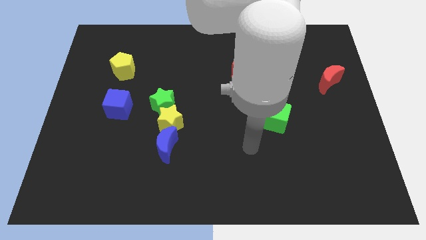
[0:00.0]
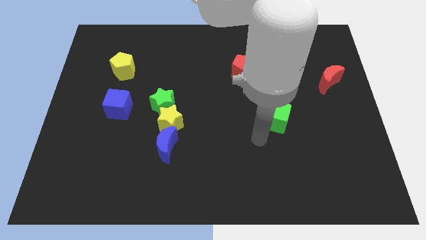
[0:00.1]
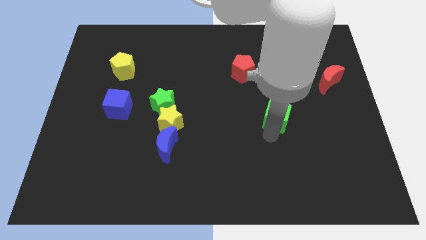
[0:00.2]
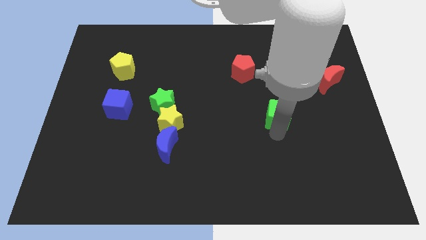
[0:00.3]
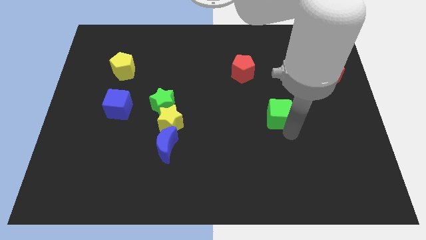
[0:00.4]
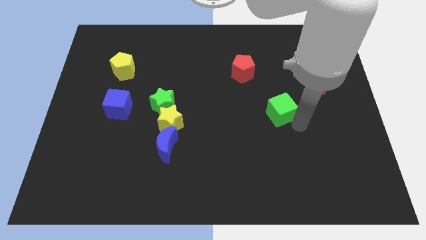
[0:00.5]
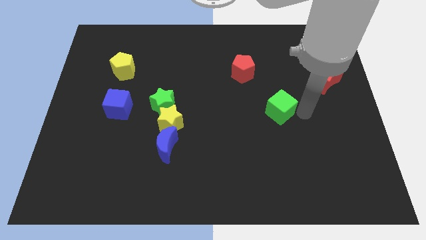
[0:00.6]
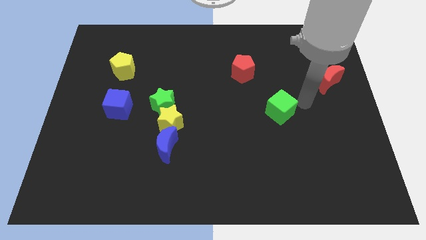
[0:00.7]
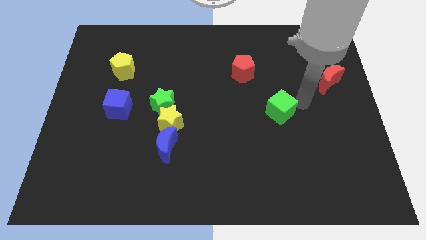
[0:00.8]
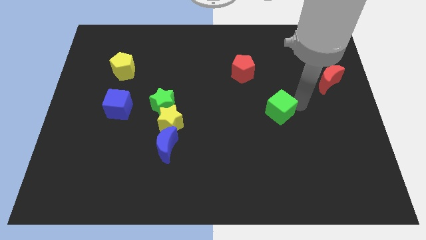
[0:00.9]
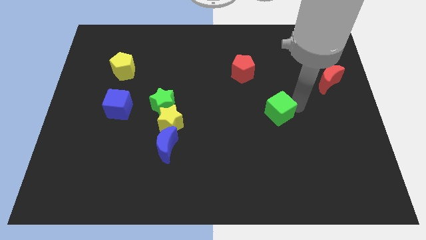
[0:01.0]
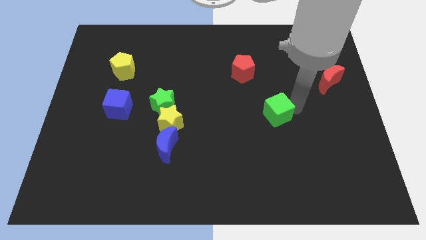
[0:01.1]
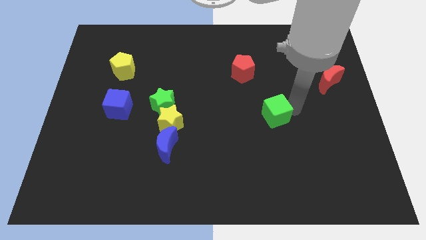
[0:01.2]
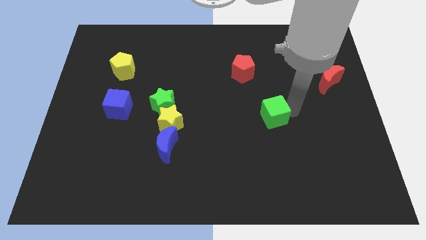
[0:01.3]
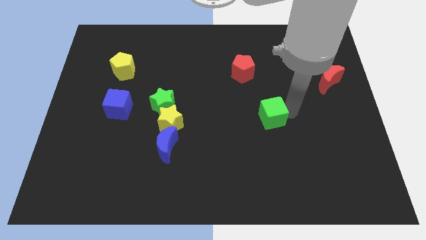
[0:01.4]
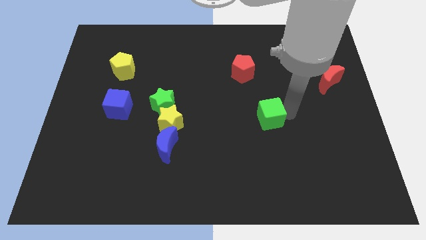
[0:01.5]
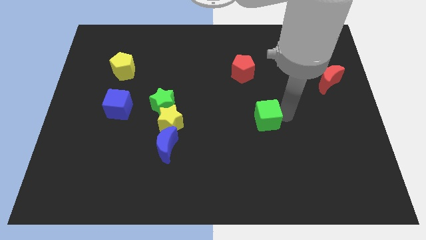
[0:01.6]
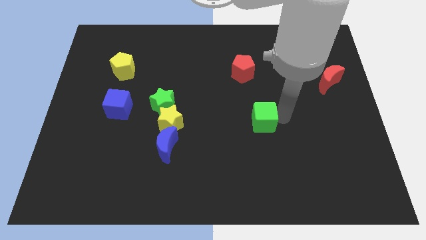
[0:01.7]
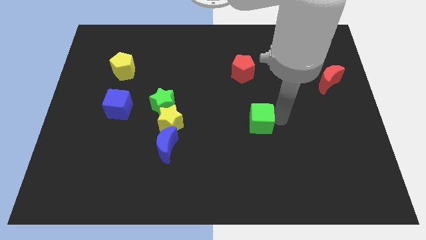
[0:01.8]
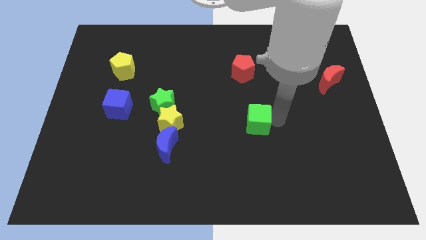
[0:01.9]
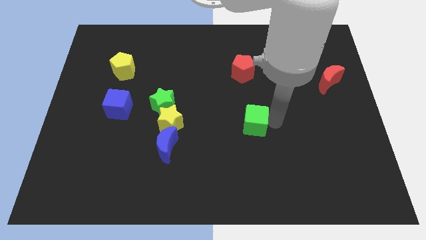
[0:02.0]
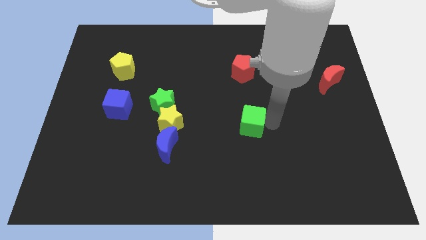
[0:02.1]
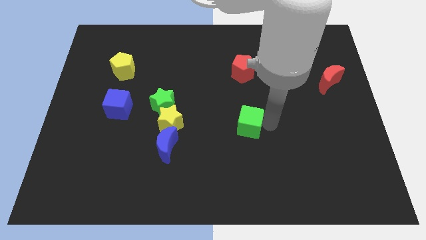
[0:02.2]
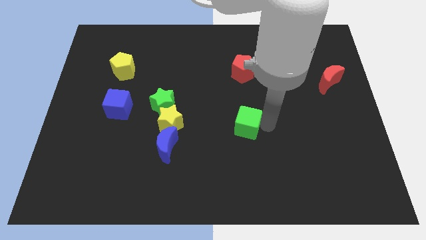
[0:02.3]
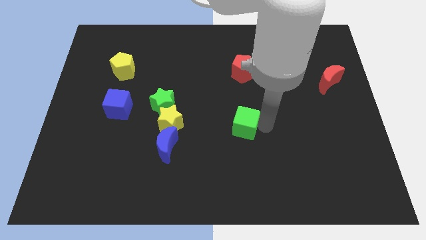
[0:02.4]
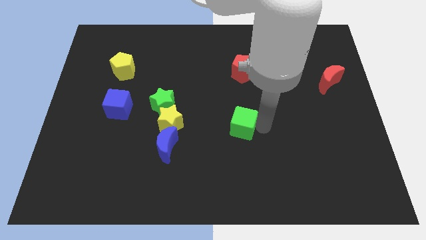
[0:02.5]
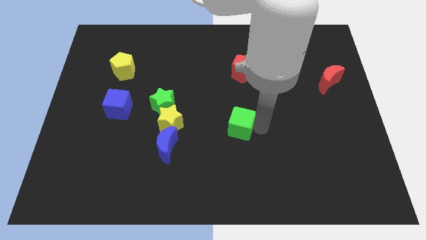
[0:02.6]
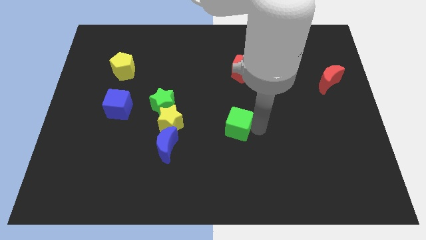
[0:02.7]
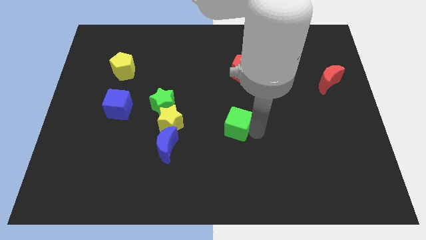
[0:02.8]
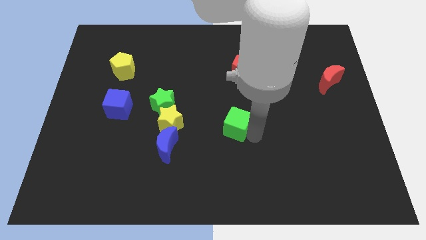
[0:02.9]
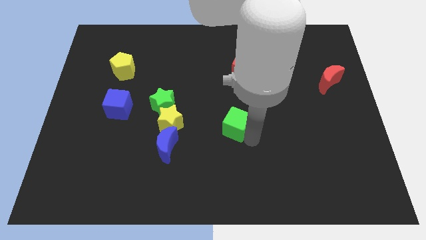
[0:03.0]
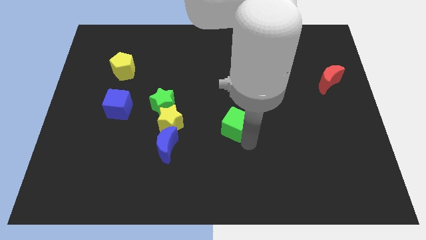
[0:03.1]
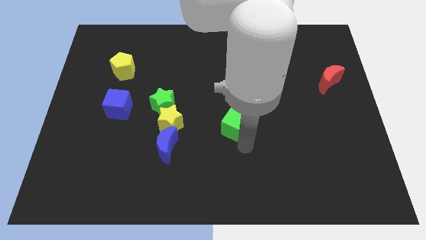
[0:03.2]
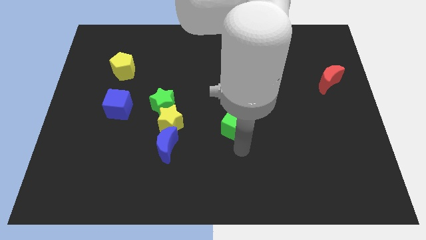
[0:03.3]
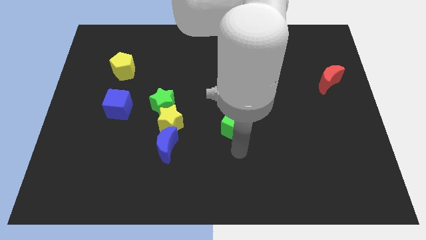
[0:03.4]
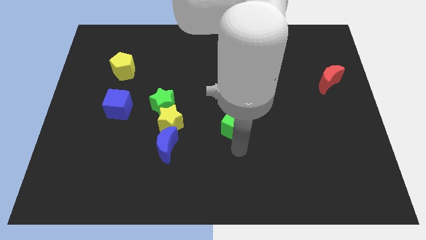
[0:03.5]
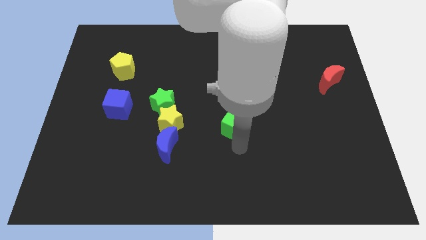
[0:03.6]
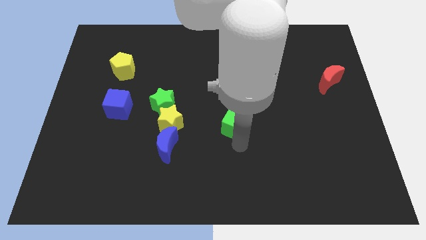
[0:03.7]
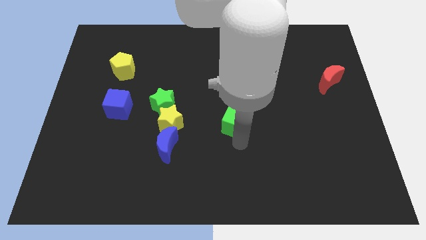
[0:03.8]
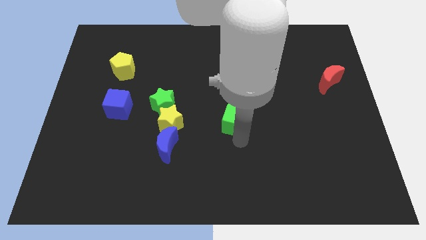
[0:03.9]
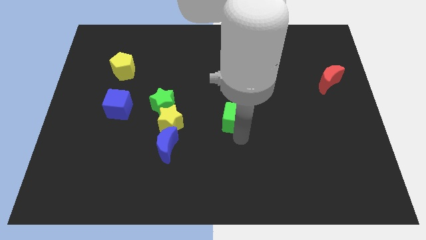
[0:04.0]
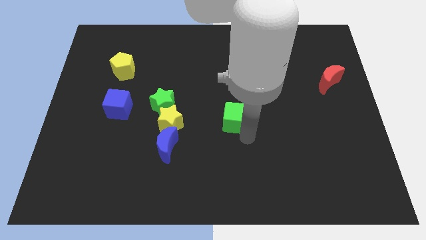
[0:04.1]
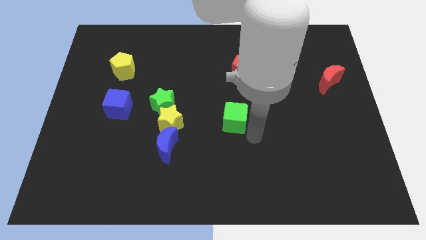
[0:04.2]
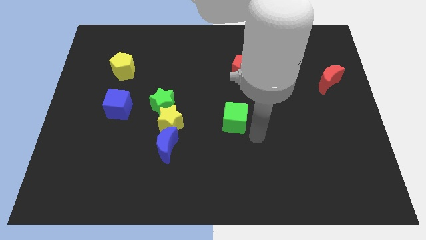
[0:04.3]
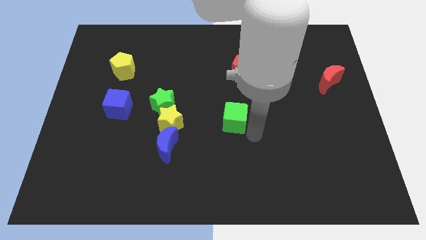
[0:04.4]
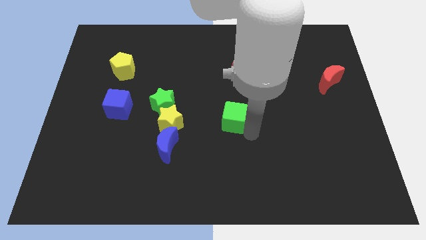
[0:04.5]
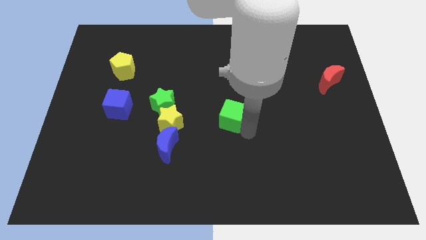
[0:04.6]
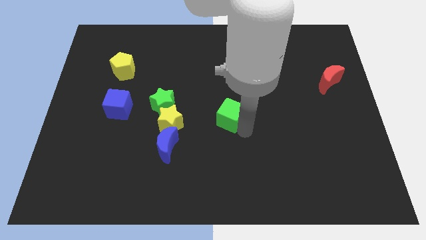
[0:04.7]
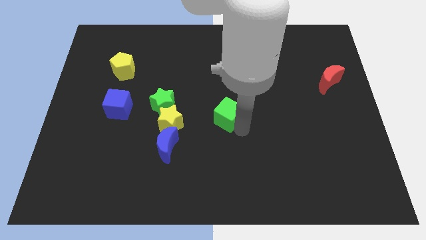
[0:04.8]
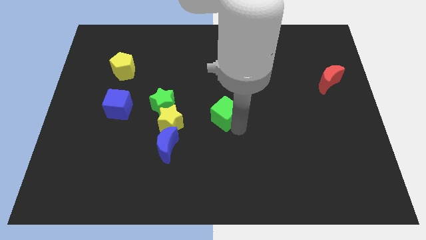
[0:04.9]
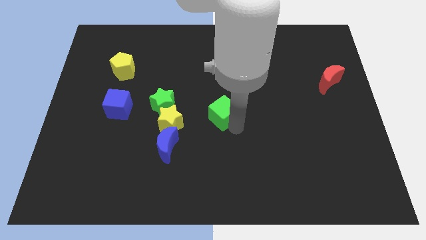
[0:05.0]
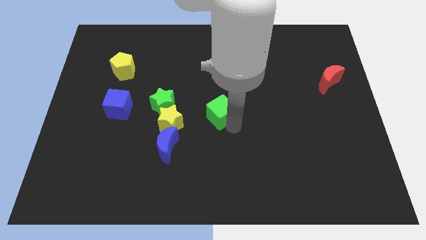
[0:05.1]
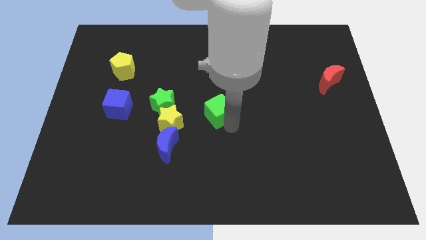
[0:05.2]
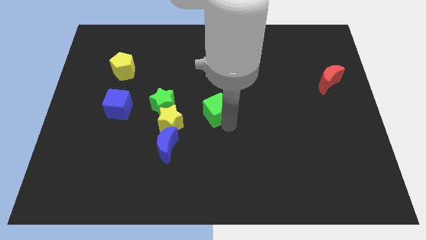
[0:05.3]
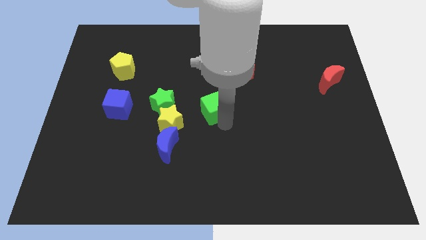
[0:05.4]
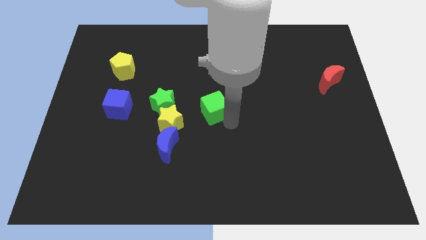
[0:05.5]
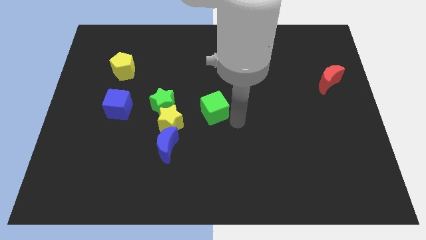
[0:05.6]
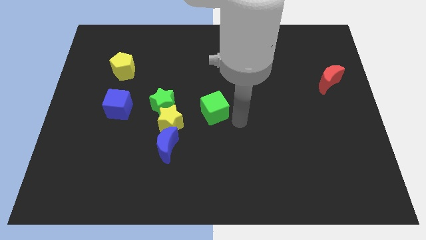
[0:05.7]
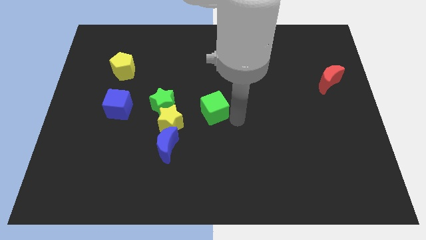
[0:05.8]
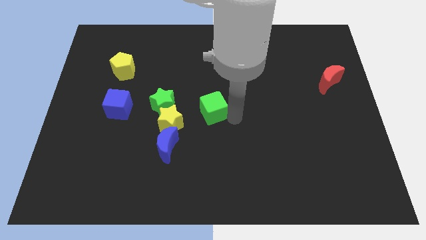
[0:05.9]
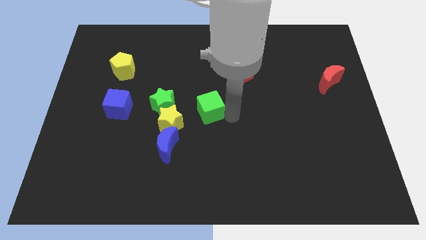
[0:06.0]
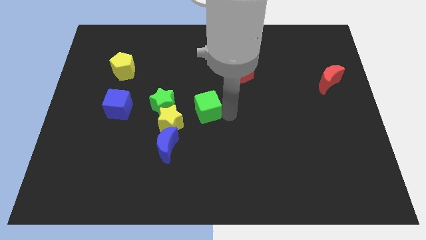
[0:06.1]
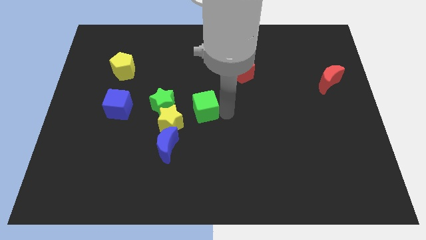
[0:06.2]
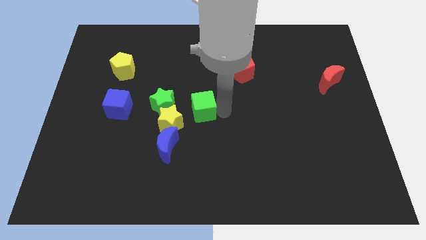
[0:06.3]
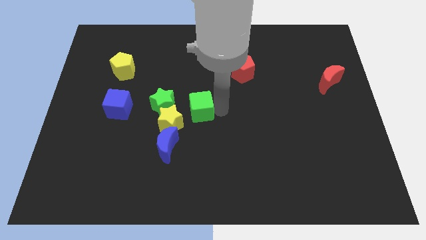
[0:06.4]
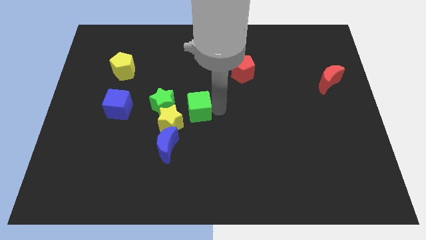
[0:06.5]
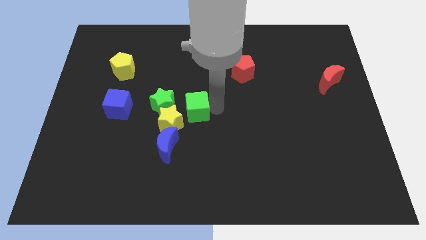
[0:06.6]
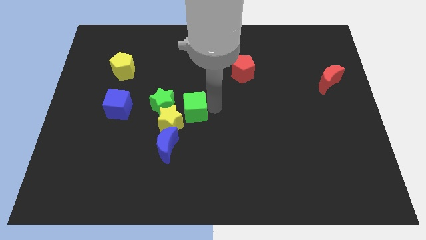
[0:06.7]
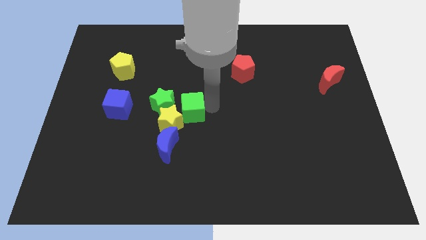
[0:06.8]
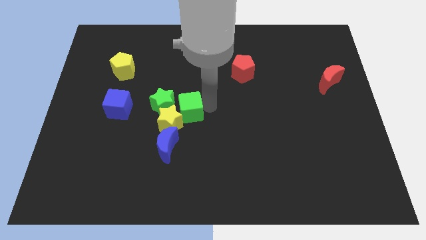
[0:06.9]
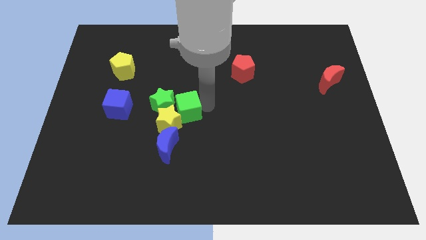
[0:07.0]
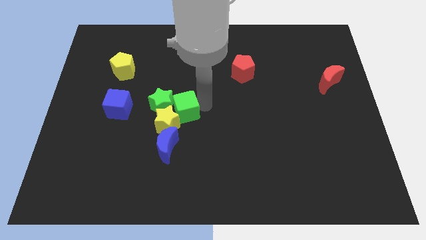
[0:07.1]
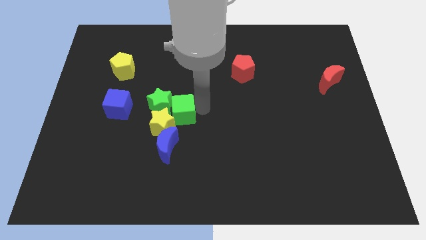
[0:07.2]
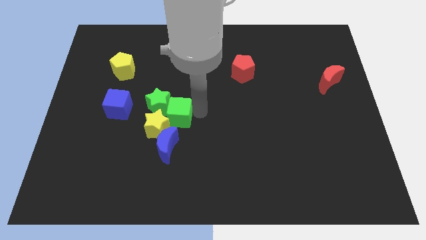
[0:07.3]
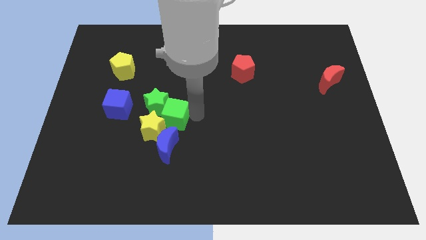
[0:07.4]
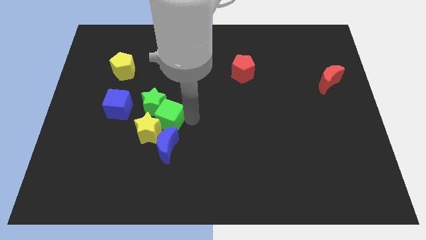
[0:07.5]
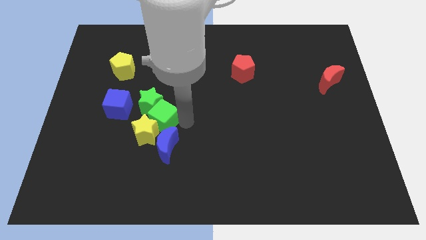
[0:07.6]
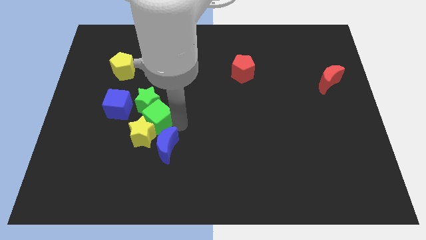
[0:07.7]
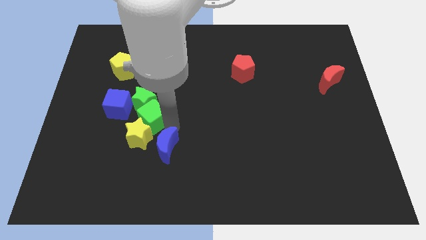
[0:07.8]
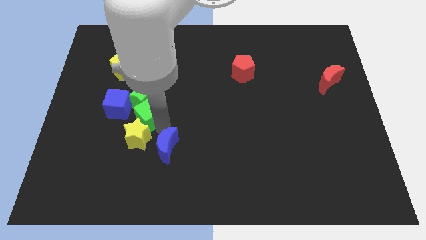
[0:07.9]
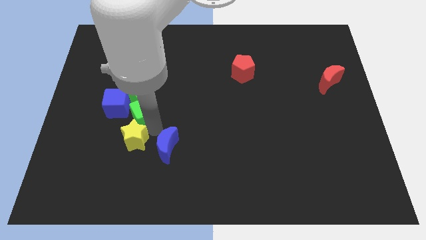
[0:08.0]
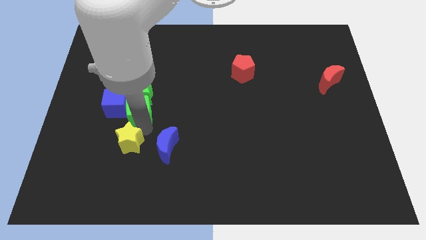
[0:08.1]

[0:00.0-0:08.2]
move the green cube to the blue cube
